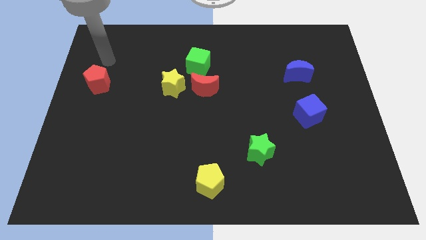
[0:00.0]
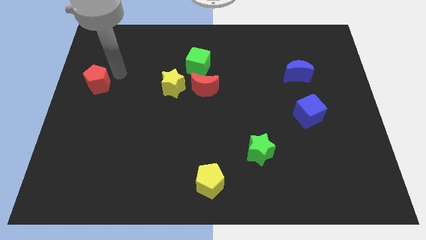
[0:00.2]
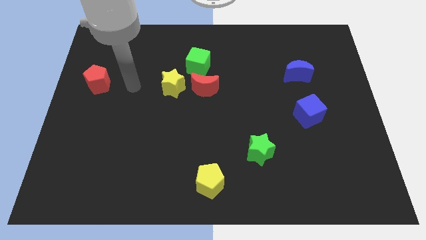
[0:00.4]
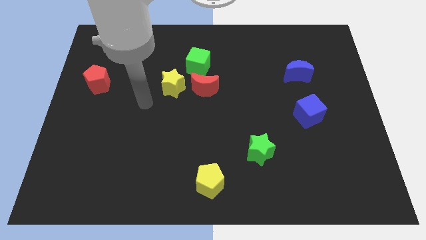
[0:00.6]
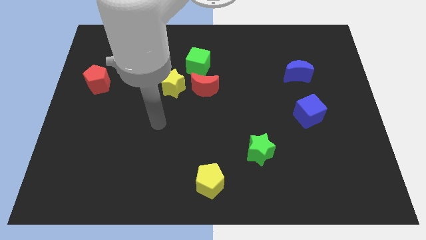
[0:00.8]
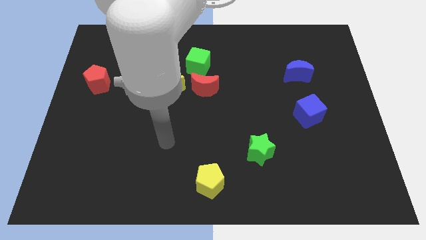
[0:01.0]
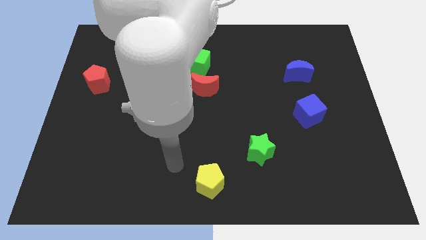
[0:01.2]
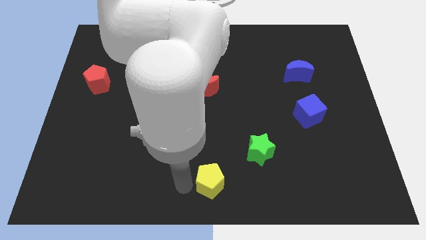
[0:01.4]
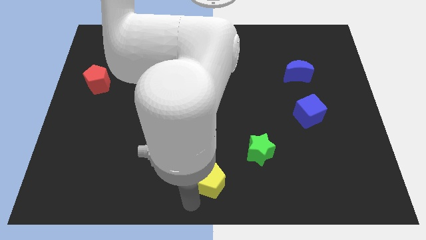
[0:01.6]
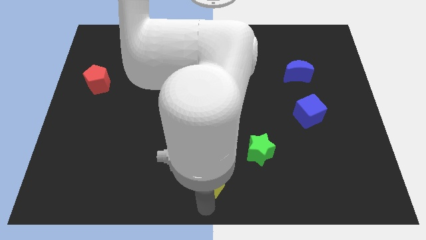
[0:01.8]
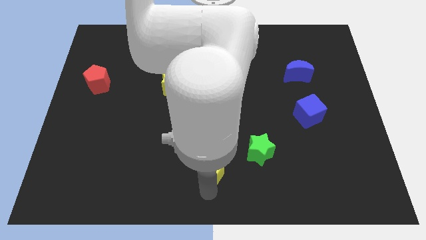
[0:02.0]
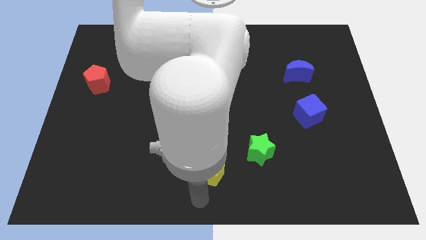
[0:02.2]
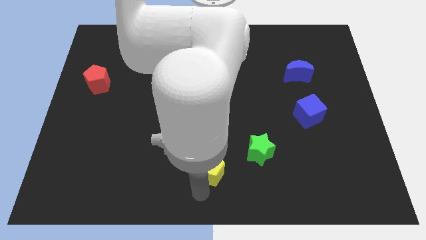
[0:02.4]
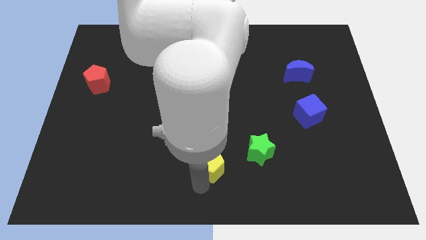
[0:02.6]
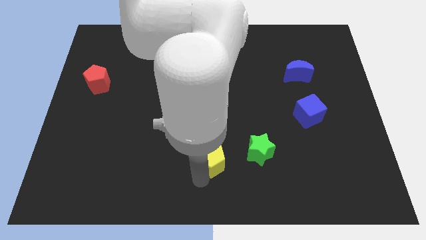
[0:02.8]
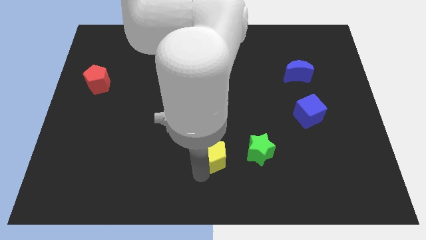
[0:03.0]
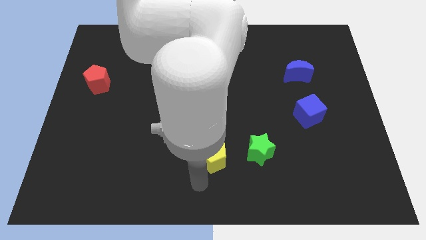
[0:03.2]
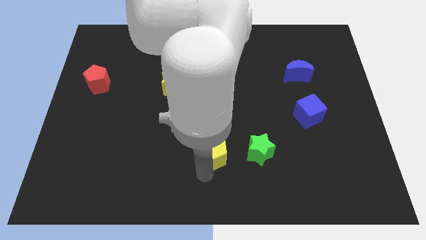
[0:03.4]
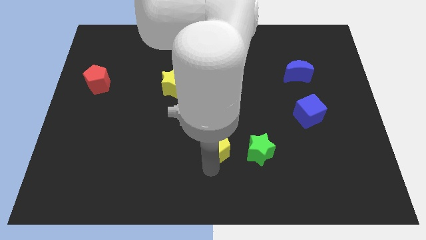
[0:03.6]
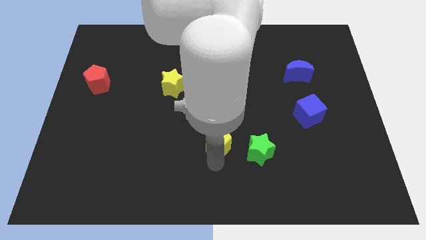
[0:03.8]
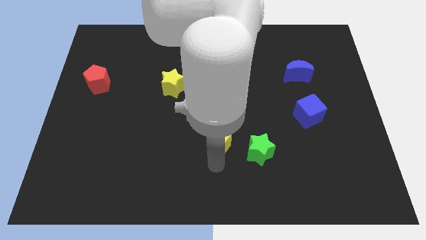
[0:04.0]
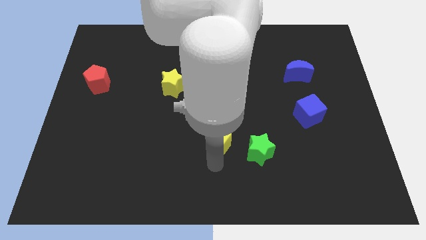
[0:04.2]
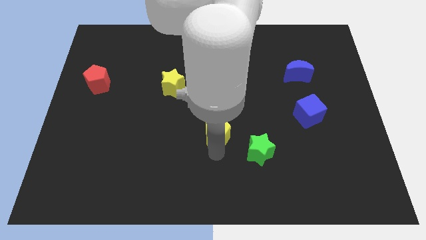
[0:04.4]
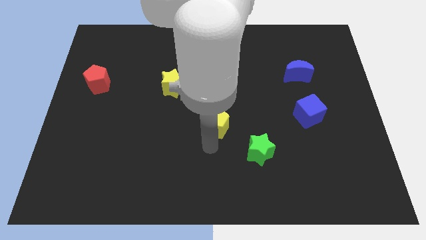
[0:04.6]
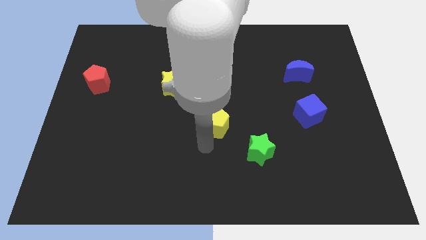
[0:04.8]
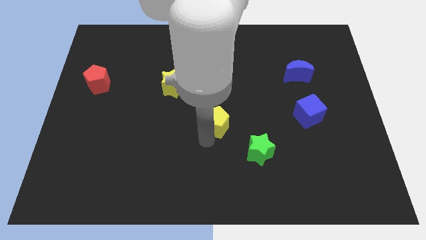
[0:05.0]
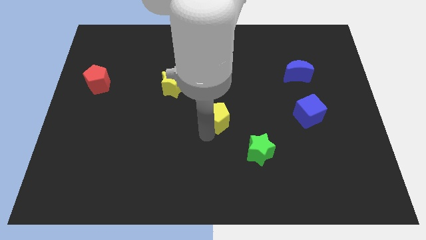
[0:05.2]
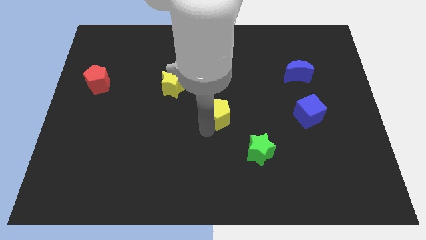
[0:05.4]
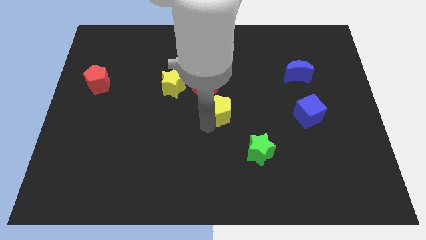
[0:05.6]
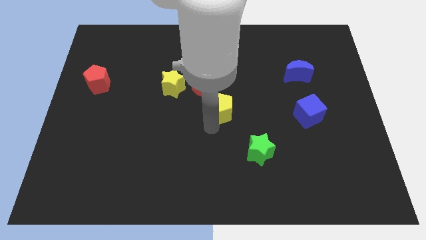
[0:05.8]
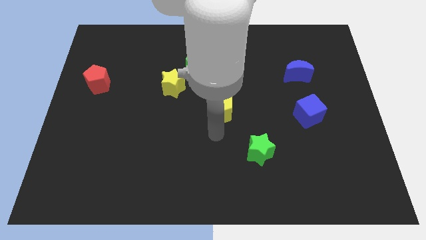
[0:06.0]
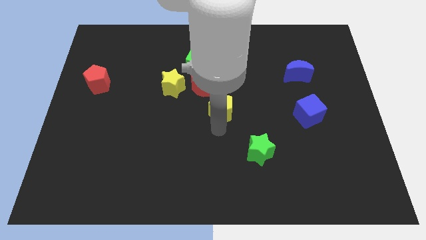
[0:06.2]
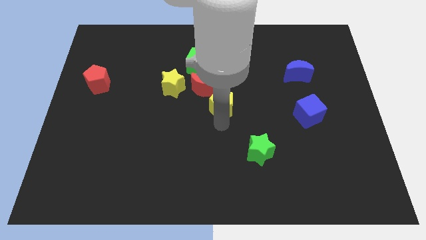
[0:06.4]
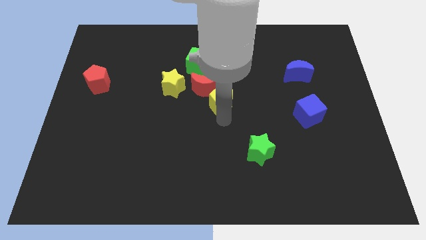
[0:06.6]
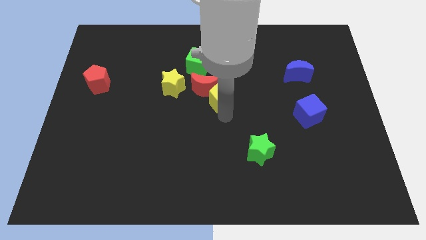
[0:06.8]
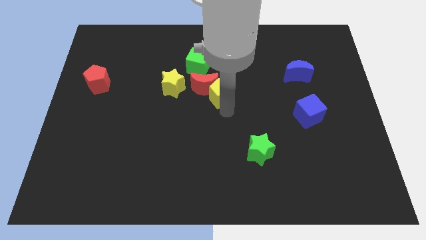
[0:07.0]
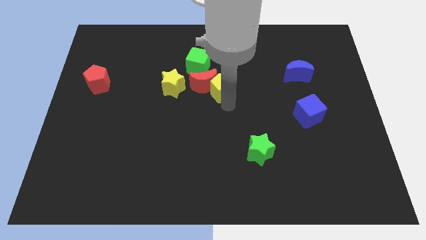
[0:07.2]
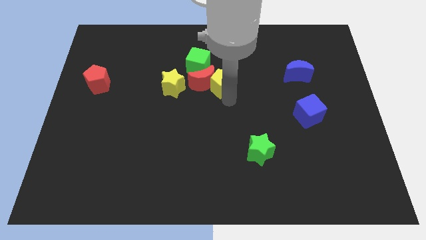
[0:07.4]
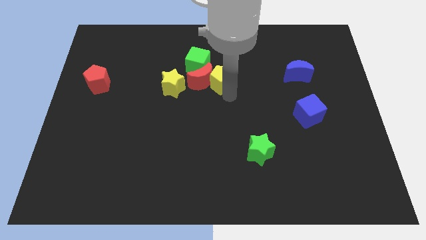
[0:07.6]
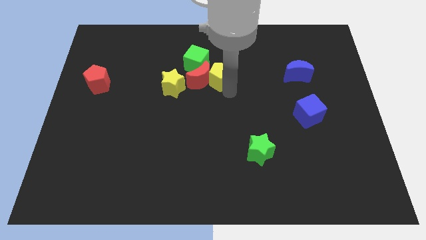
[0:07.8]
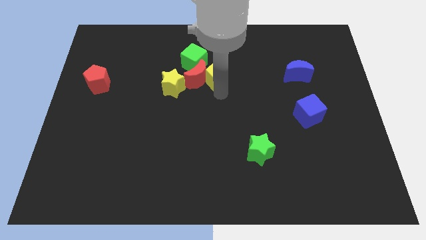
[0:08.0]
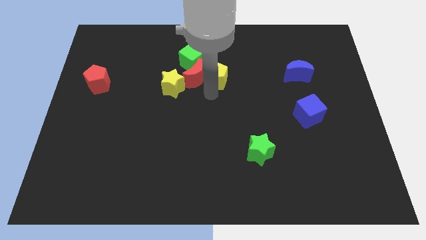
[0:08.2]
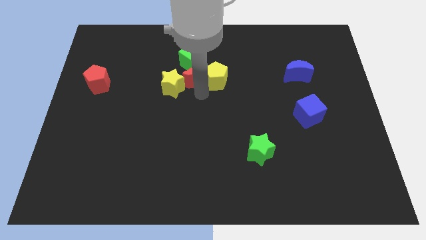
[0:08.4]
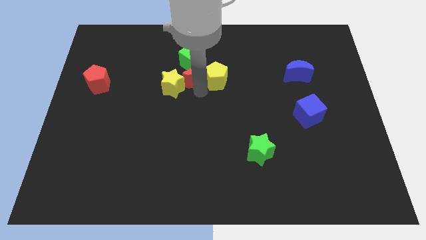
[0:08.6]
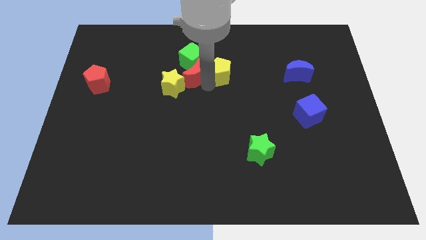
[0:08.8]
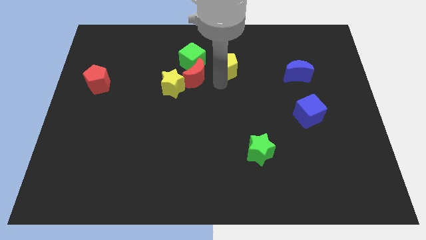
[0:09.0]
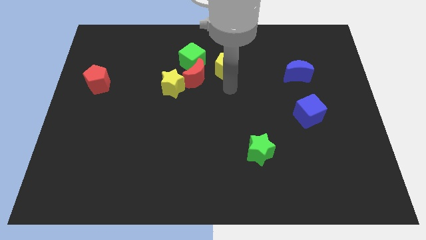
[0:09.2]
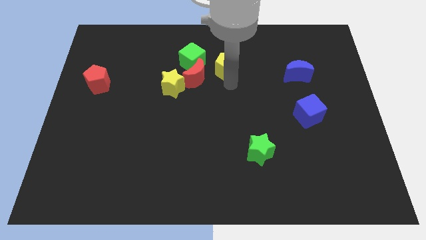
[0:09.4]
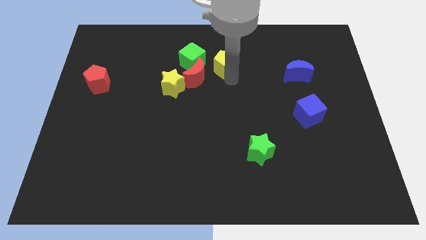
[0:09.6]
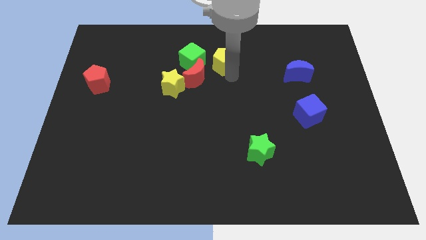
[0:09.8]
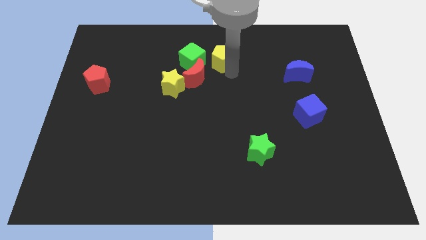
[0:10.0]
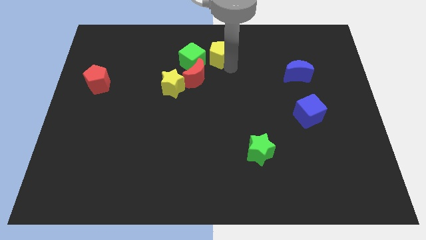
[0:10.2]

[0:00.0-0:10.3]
put the yellow pentagon to the top
